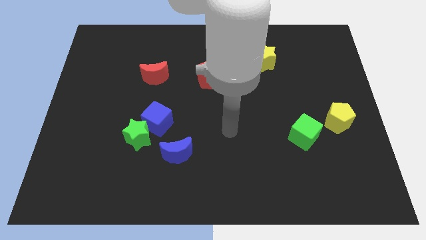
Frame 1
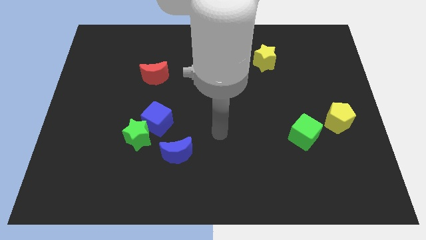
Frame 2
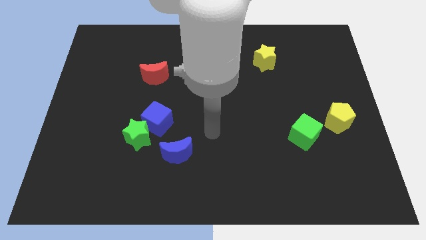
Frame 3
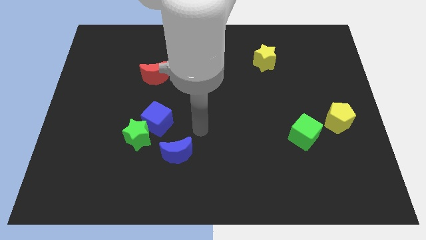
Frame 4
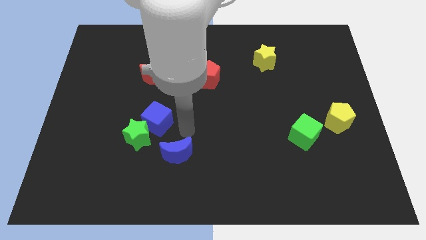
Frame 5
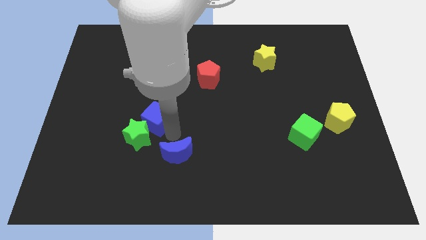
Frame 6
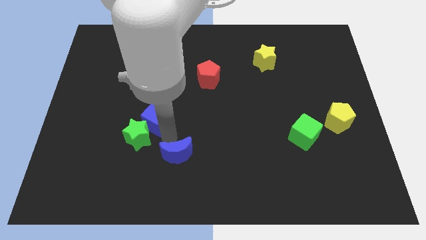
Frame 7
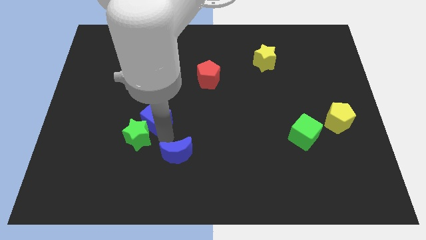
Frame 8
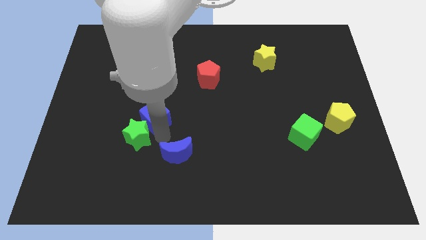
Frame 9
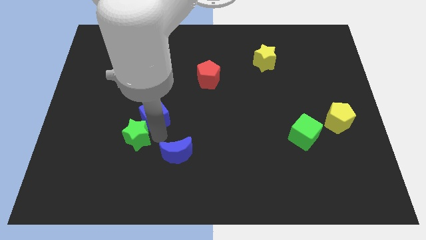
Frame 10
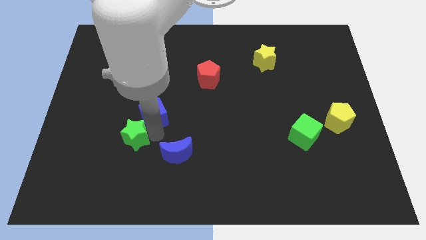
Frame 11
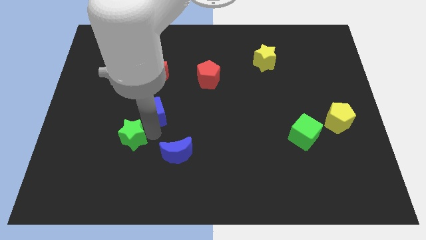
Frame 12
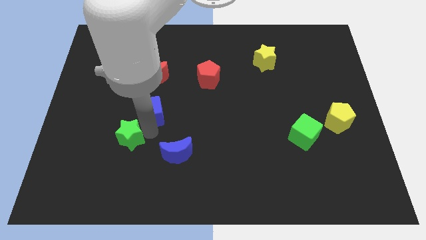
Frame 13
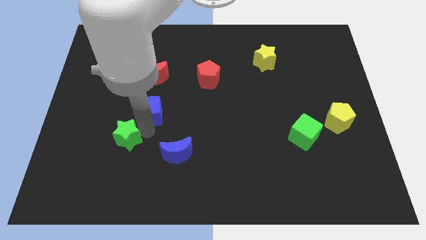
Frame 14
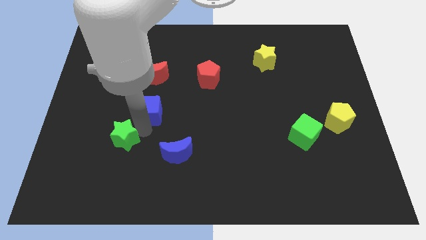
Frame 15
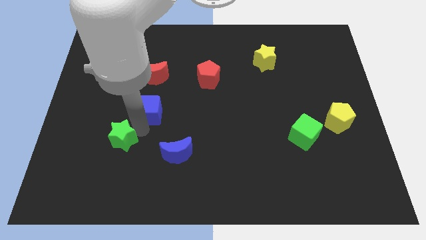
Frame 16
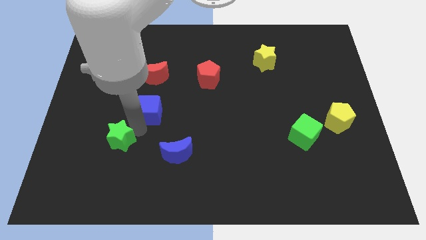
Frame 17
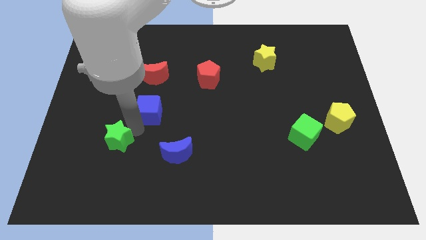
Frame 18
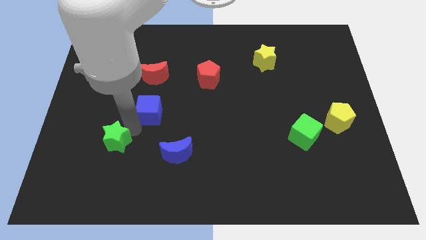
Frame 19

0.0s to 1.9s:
pull the green star apart from the blue cube and blue moon

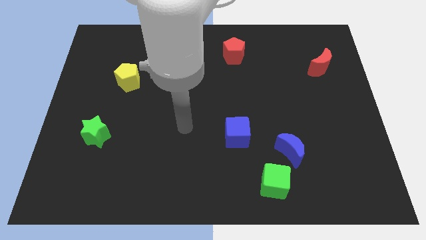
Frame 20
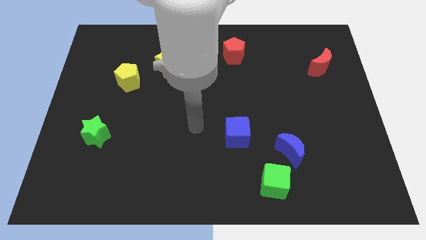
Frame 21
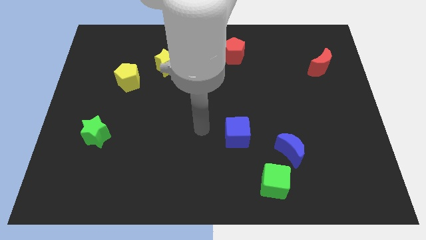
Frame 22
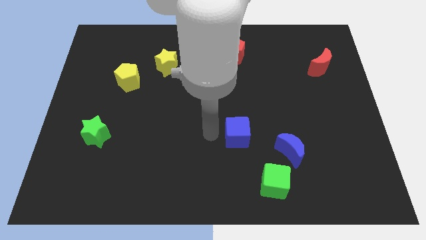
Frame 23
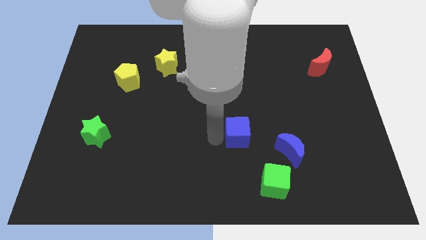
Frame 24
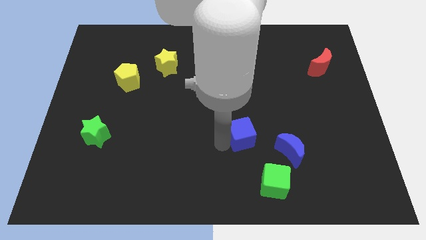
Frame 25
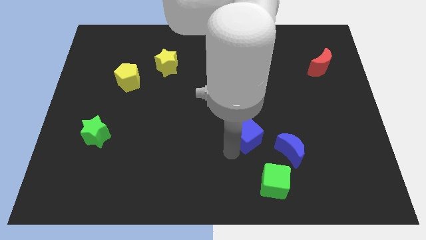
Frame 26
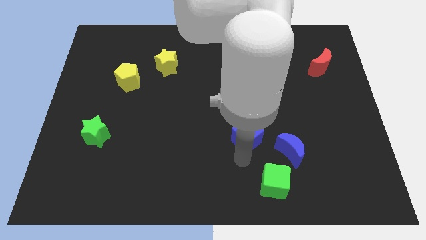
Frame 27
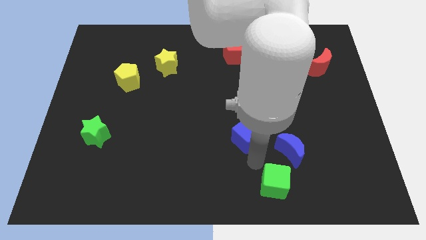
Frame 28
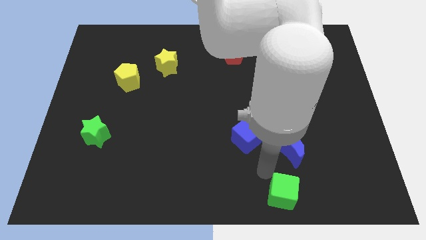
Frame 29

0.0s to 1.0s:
separate the blue moon from the green cube

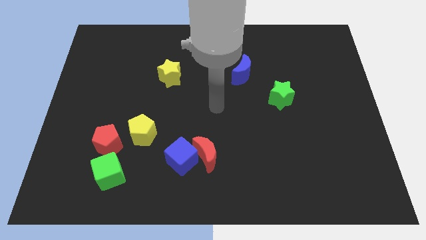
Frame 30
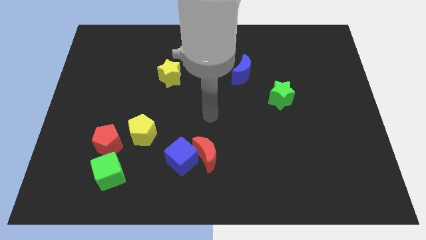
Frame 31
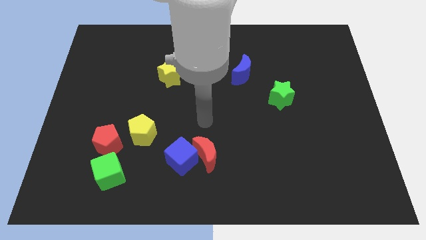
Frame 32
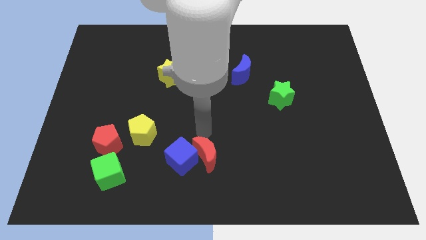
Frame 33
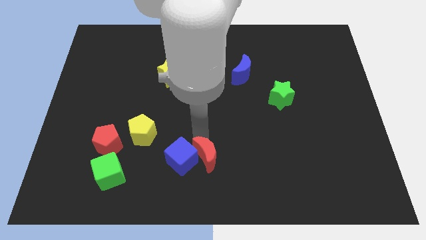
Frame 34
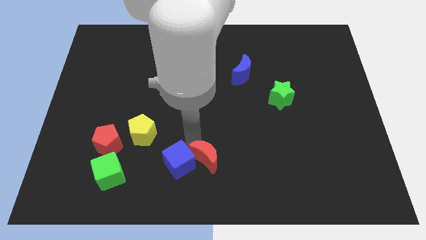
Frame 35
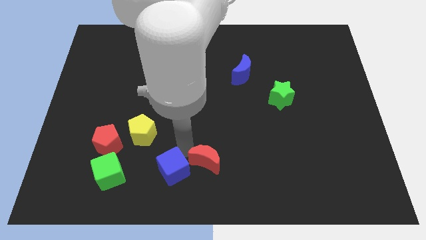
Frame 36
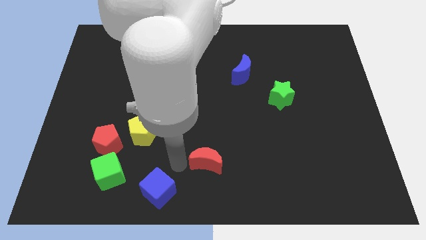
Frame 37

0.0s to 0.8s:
move the red moon away from the blue cube

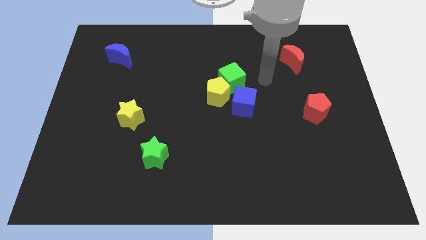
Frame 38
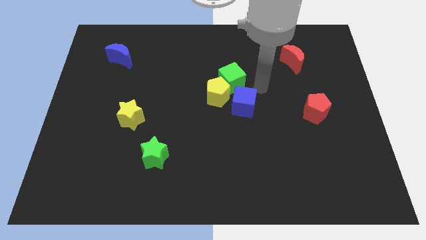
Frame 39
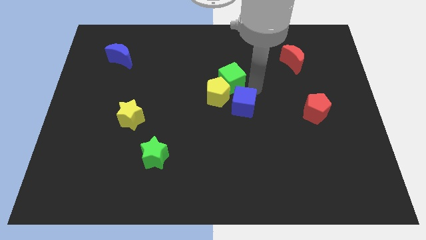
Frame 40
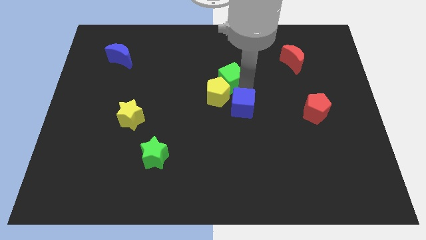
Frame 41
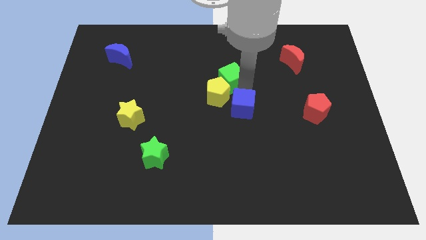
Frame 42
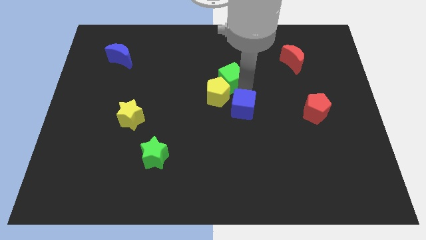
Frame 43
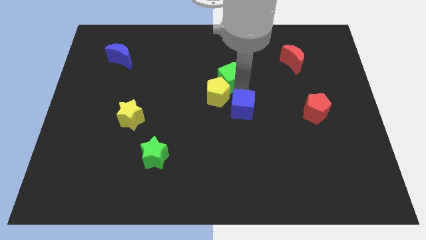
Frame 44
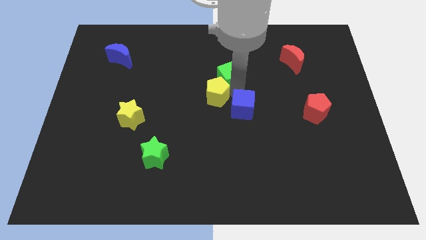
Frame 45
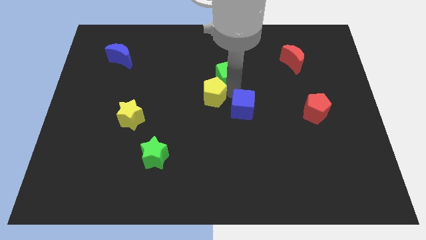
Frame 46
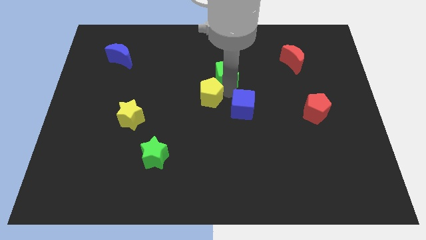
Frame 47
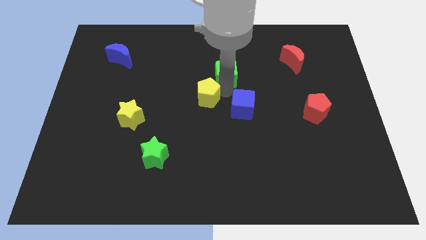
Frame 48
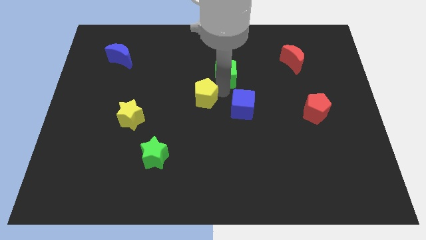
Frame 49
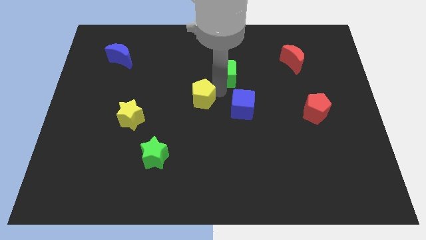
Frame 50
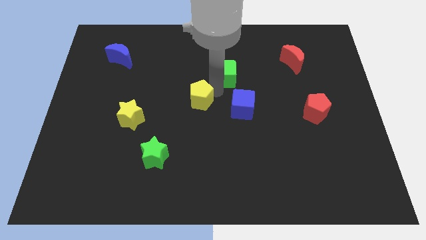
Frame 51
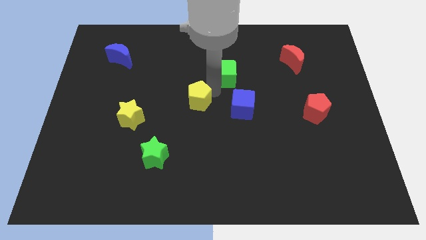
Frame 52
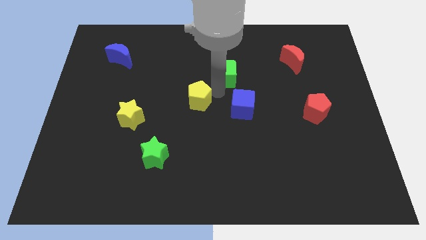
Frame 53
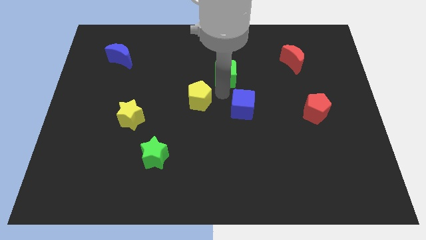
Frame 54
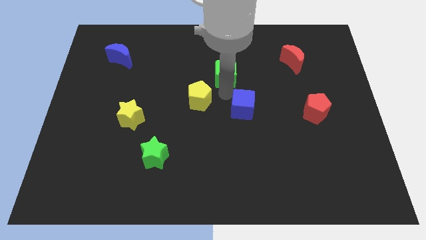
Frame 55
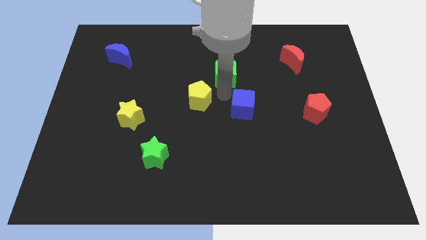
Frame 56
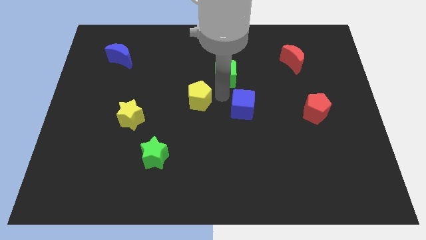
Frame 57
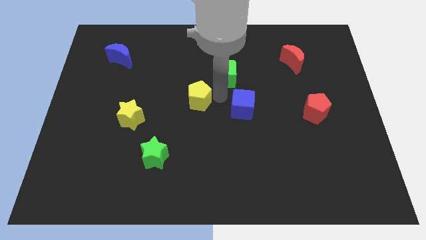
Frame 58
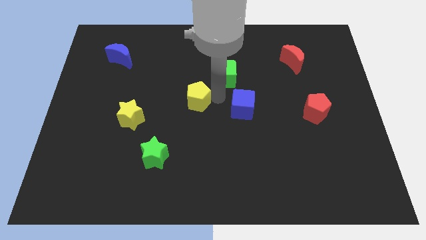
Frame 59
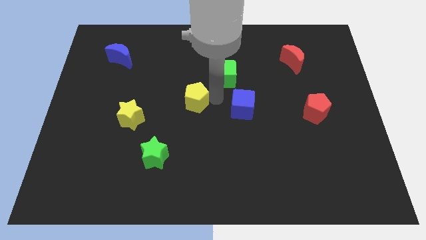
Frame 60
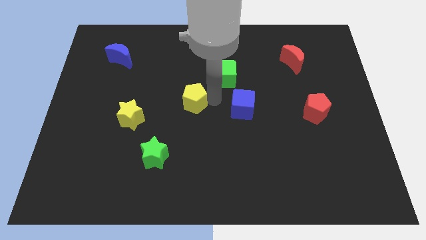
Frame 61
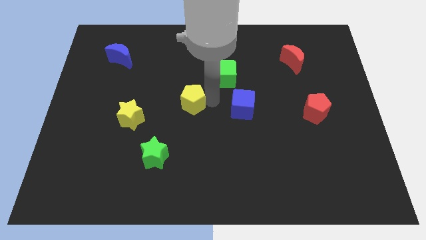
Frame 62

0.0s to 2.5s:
separate the yellow pentagon from the green cube and blue cube

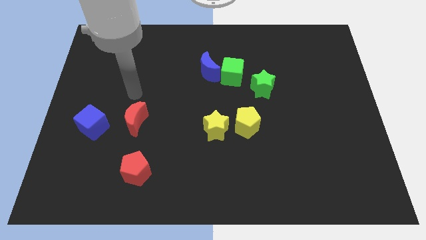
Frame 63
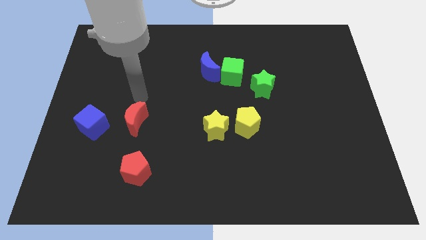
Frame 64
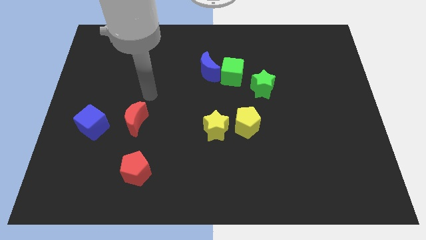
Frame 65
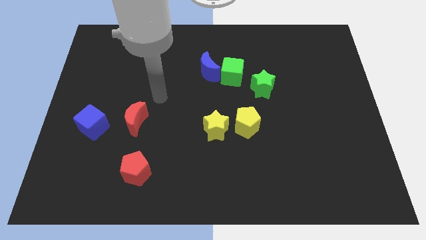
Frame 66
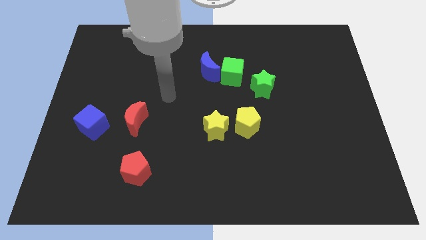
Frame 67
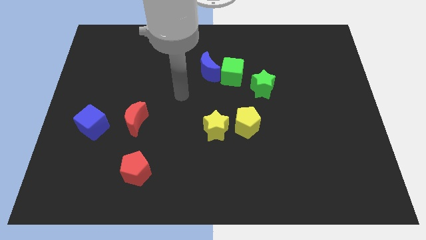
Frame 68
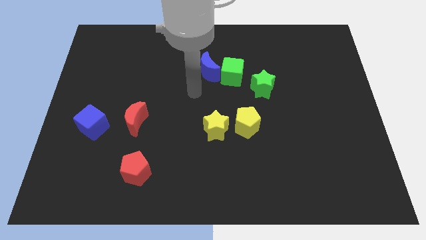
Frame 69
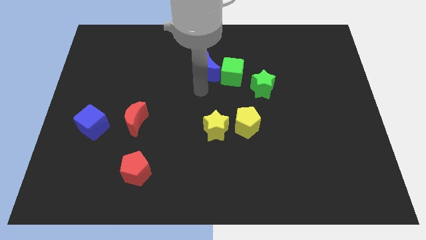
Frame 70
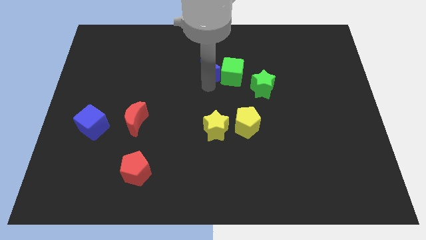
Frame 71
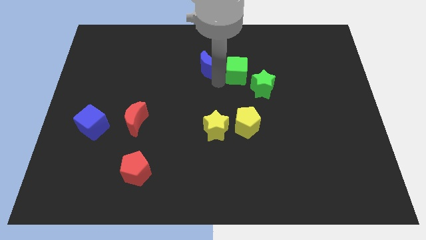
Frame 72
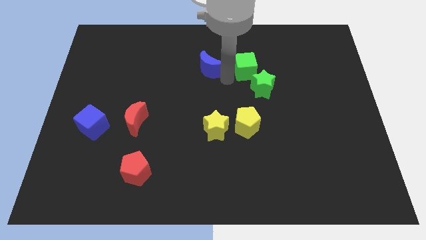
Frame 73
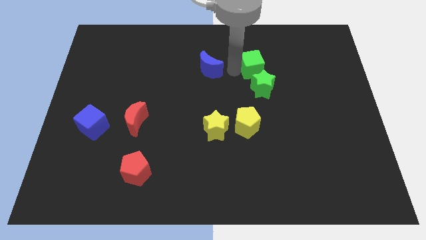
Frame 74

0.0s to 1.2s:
move the blue moon away from the green cube

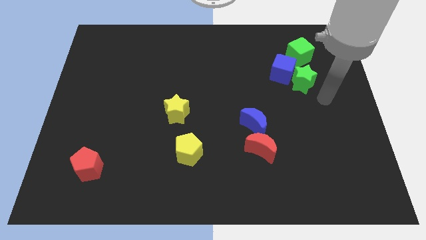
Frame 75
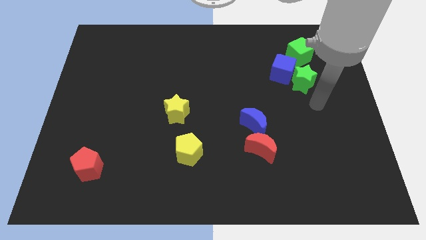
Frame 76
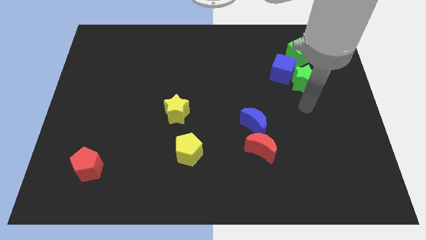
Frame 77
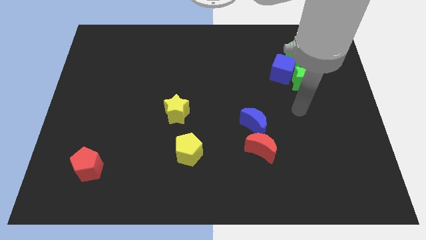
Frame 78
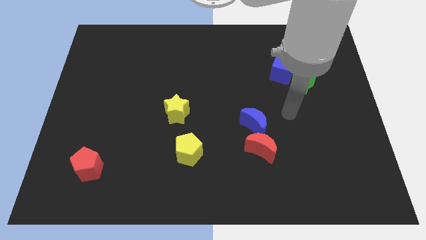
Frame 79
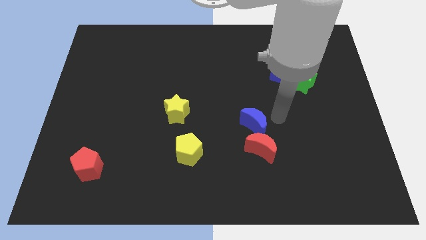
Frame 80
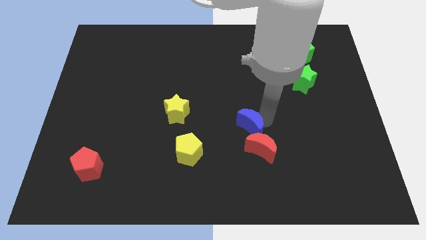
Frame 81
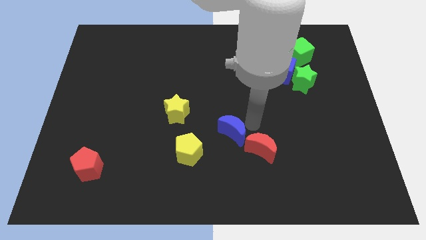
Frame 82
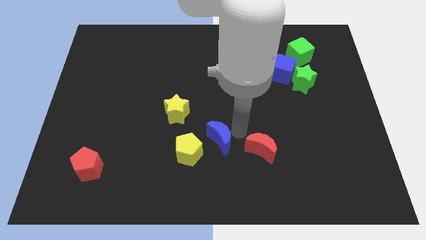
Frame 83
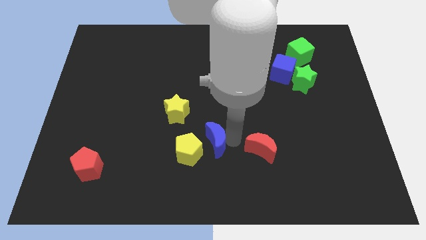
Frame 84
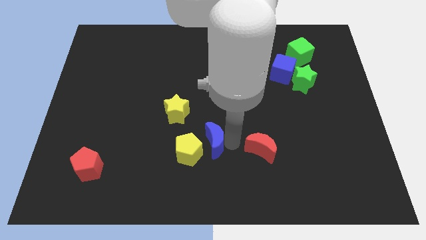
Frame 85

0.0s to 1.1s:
pull the red moon apart from the blue moon

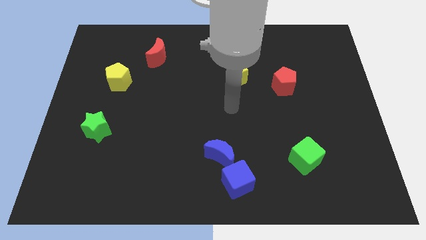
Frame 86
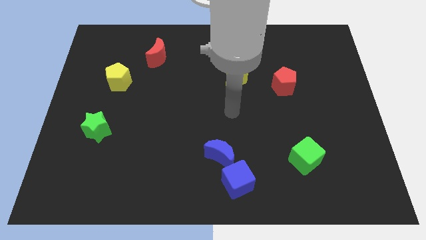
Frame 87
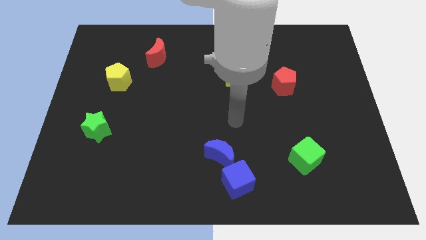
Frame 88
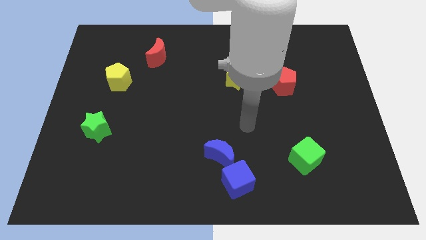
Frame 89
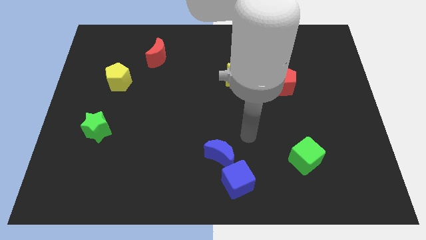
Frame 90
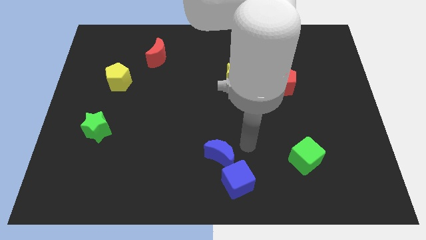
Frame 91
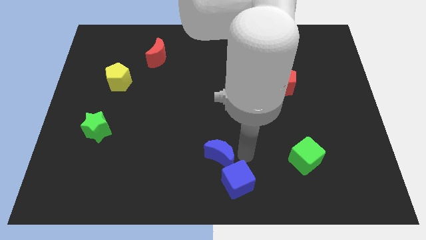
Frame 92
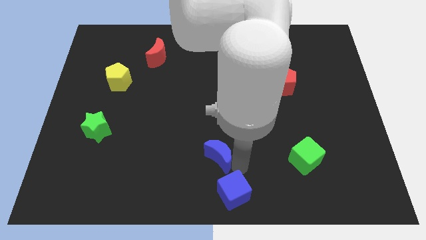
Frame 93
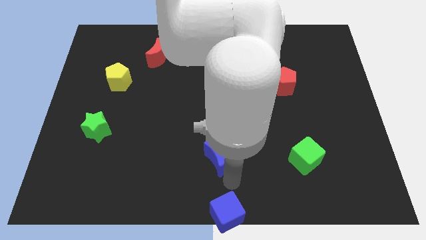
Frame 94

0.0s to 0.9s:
move the blue moon away from the blue cube
